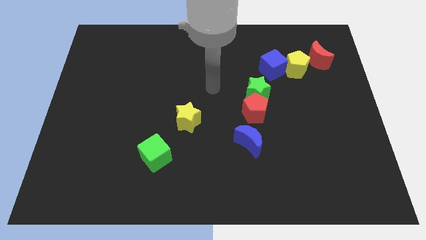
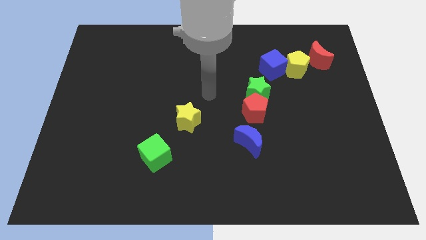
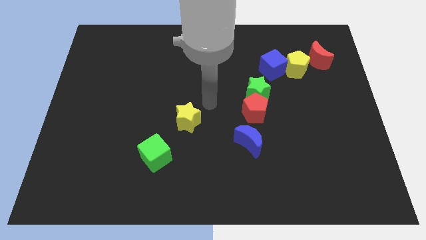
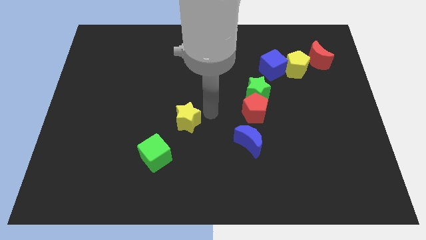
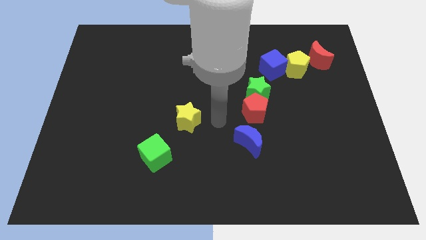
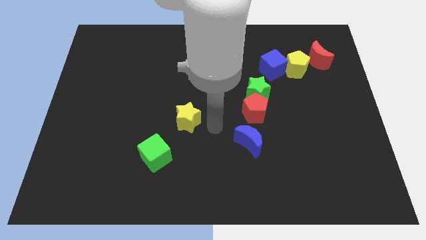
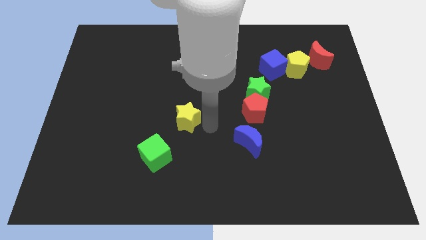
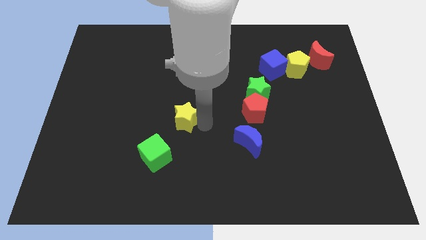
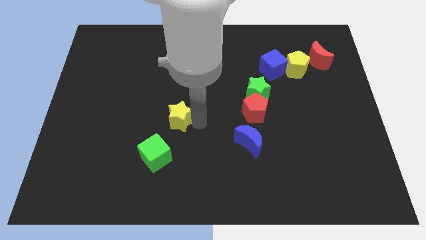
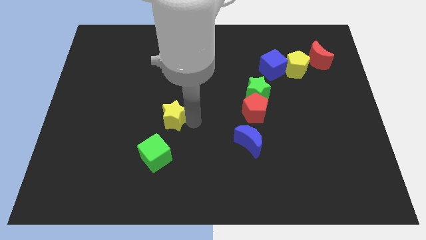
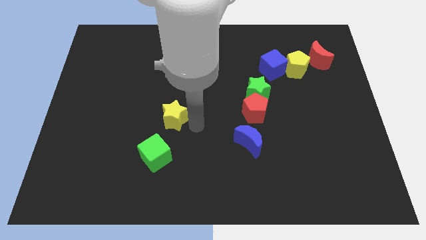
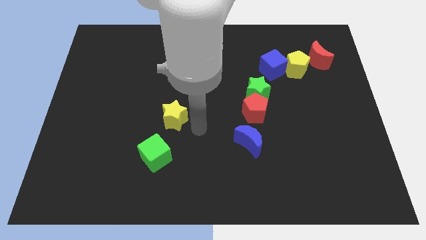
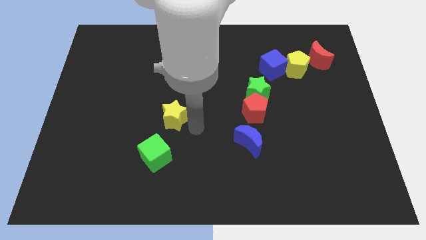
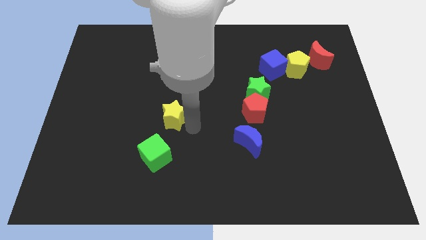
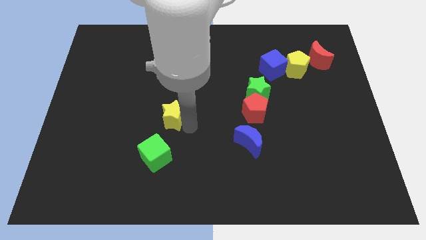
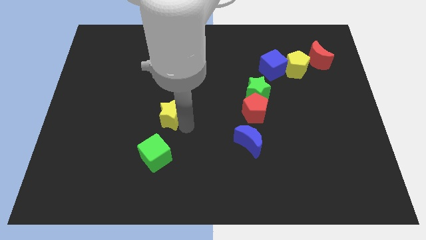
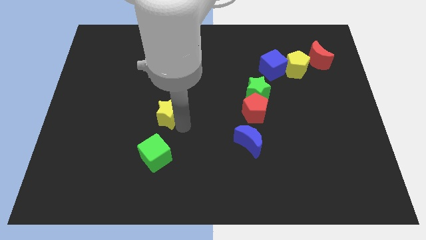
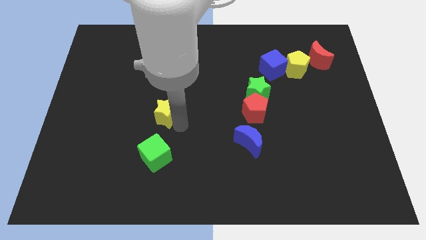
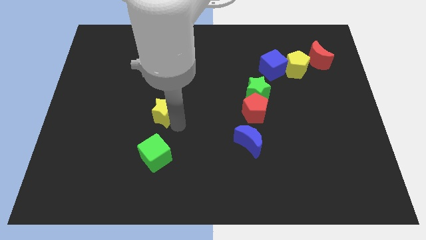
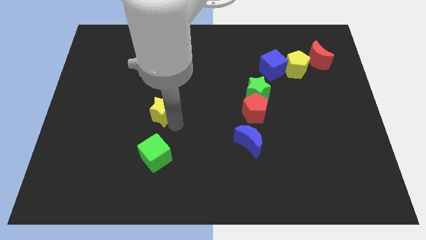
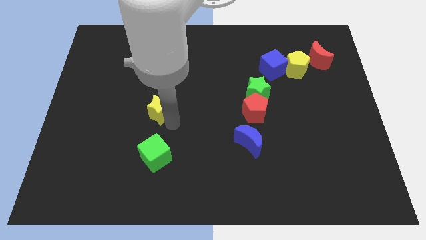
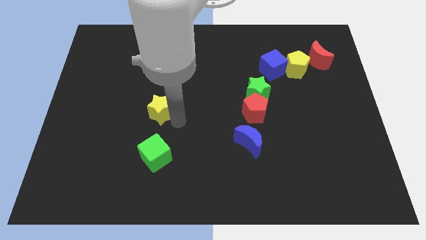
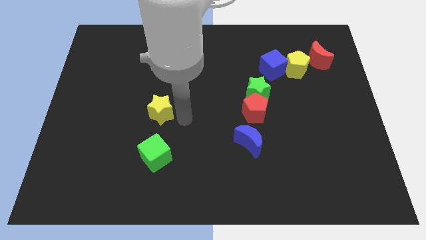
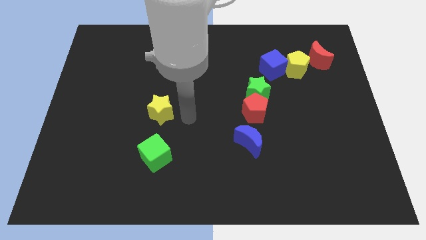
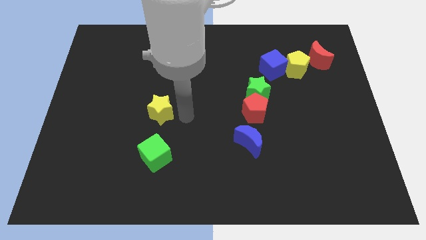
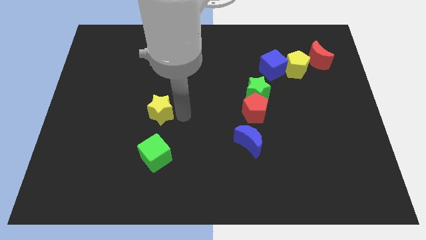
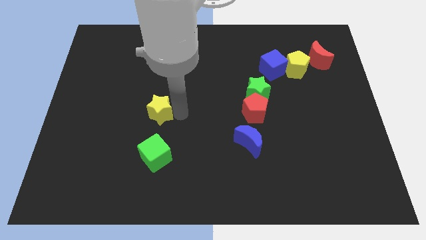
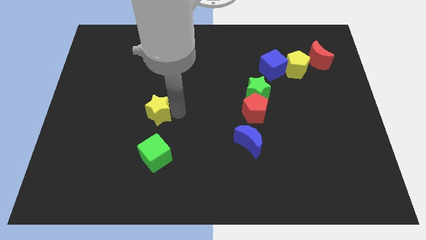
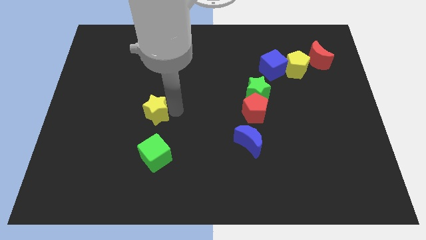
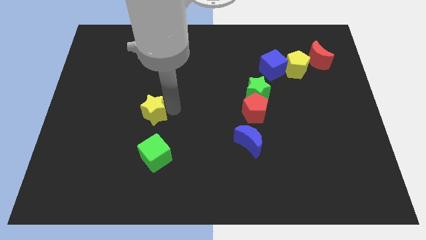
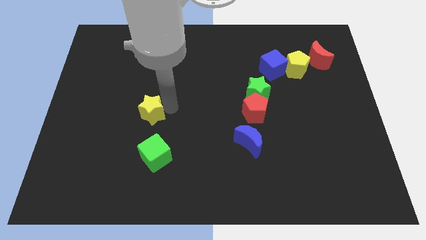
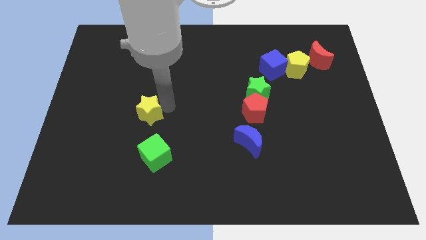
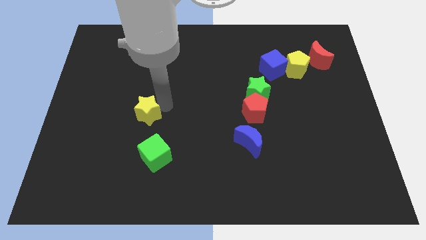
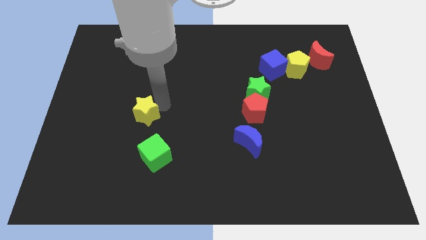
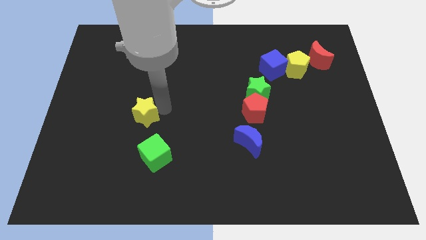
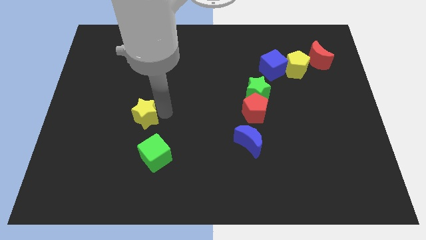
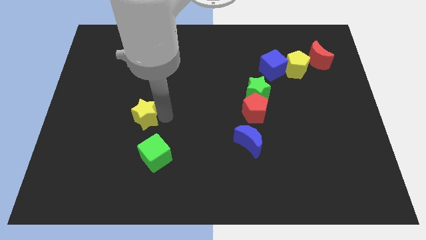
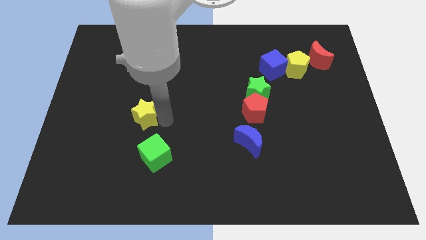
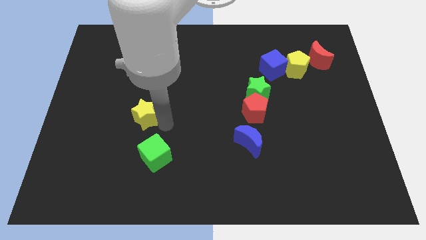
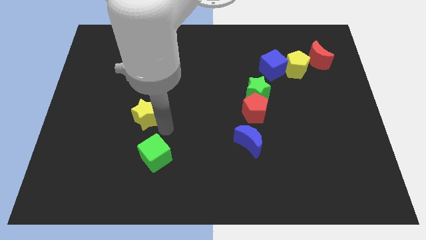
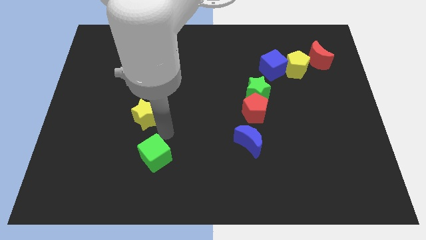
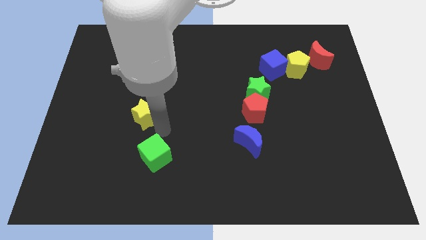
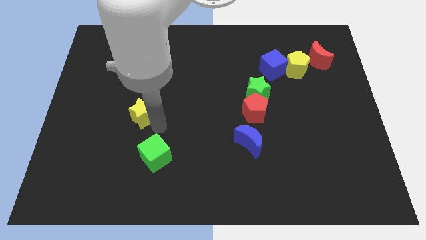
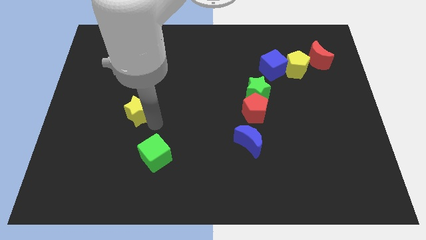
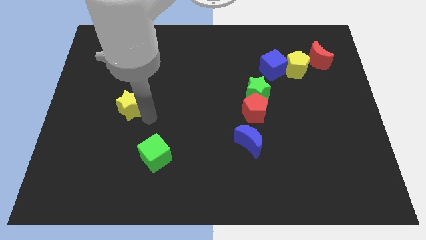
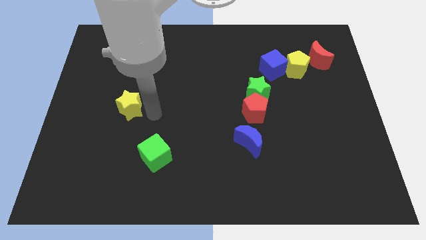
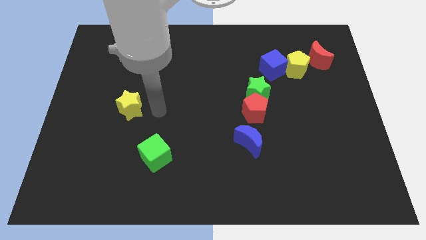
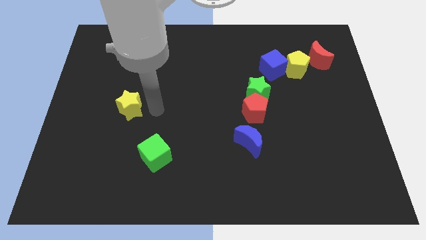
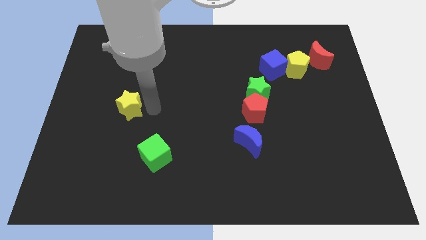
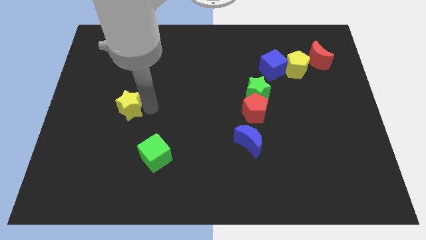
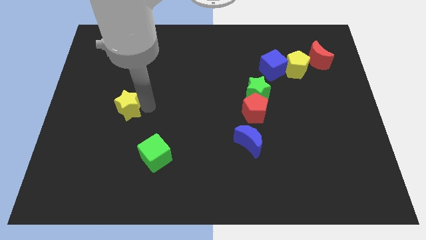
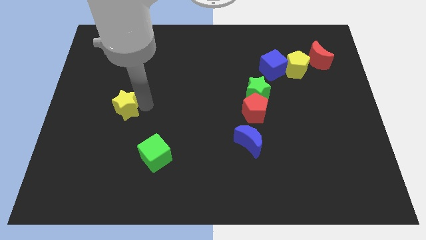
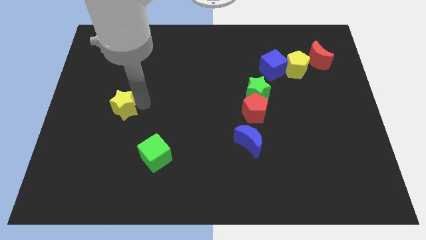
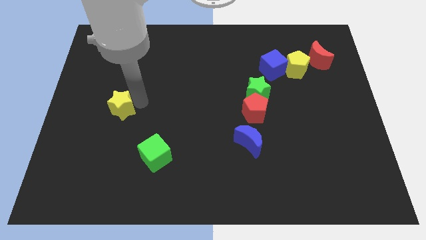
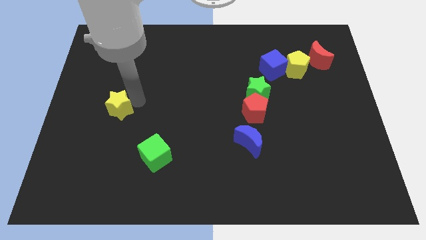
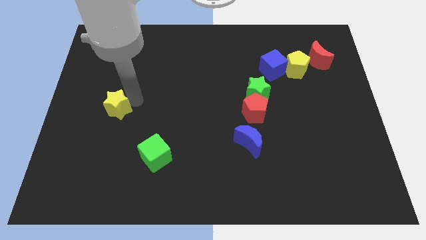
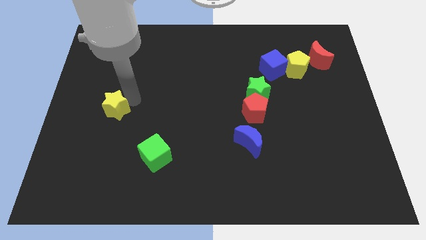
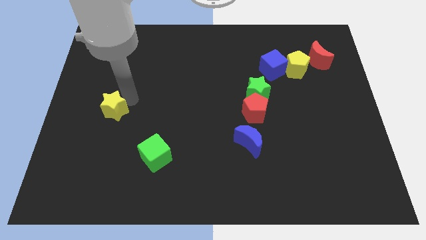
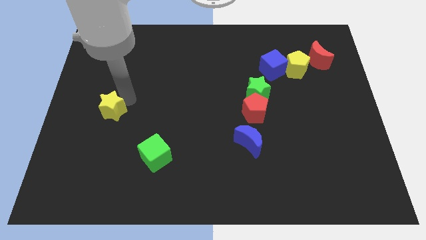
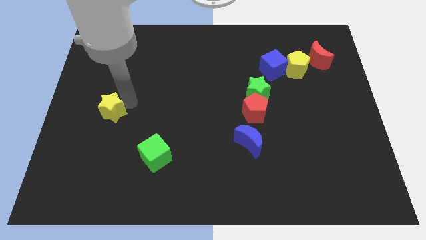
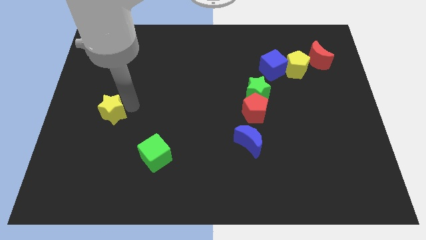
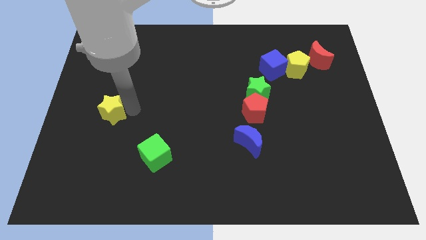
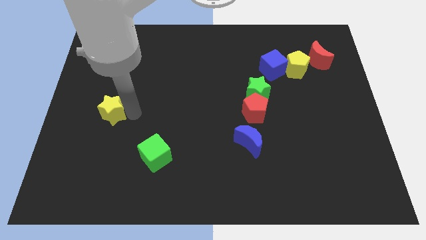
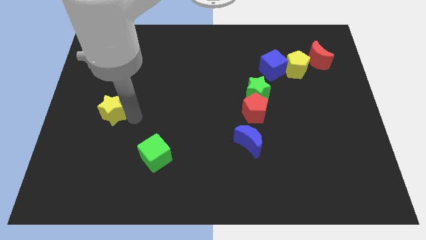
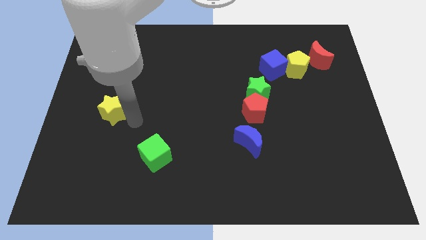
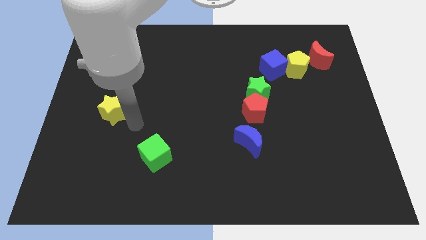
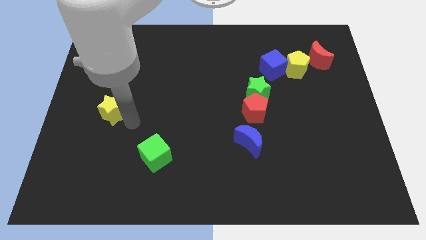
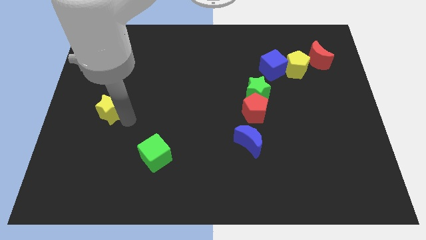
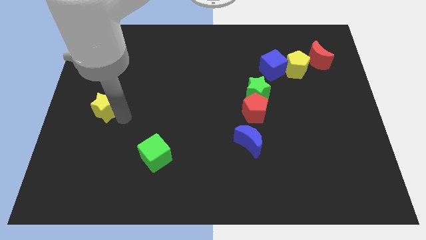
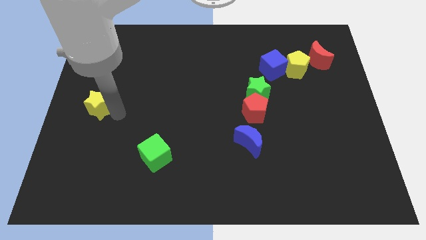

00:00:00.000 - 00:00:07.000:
put the yellow star to the left side of the board
